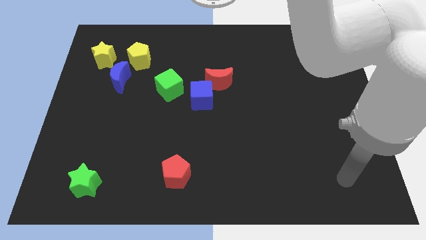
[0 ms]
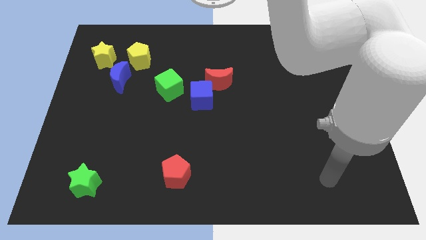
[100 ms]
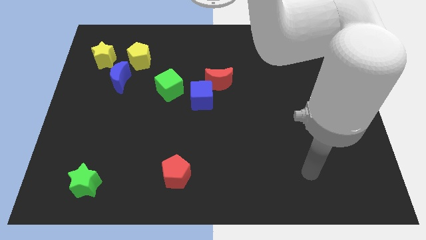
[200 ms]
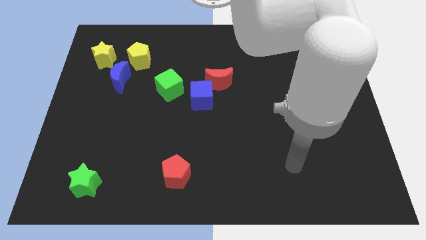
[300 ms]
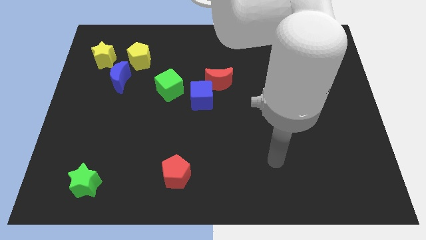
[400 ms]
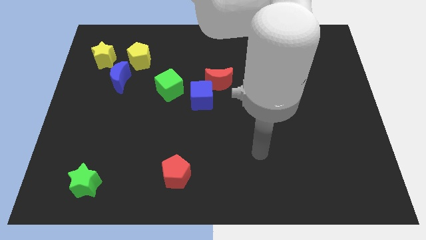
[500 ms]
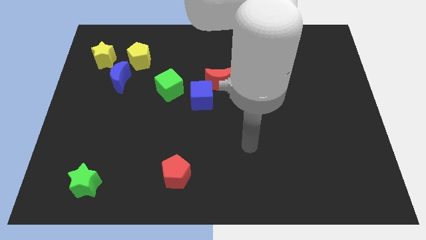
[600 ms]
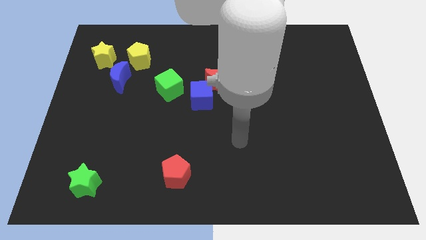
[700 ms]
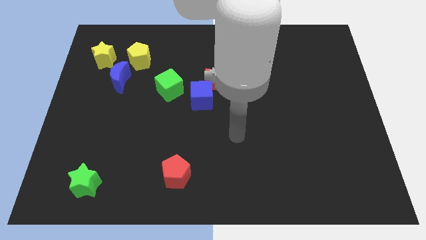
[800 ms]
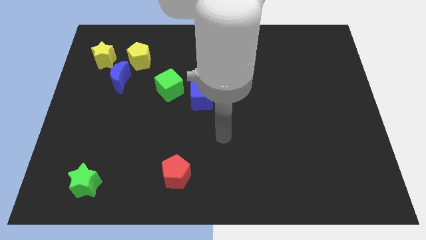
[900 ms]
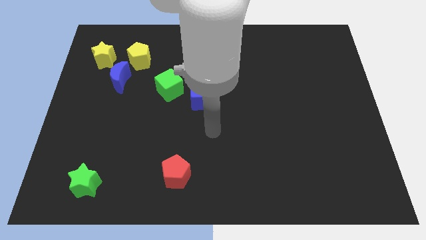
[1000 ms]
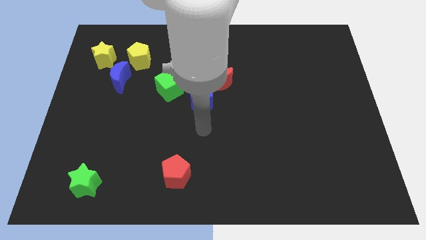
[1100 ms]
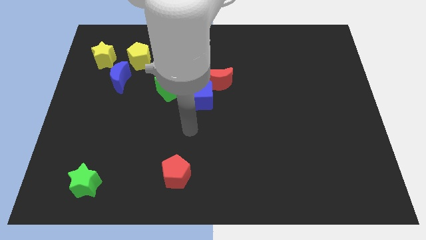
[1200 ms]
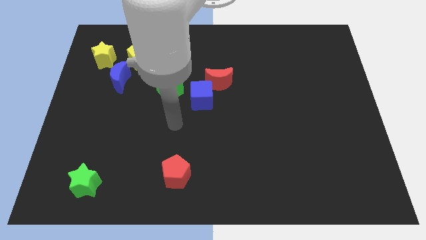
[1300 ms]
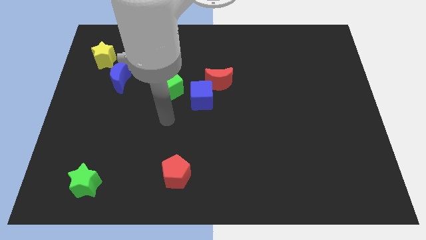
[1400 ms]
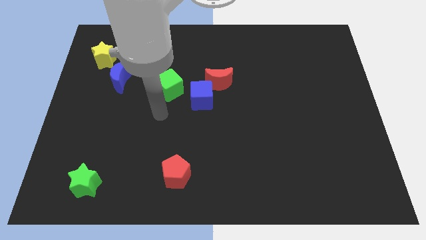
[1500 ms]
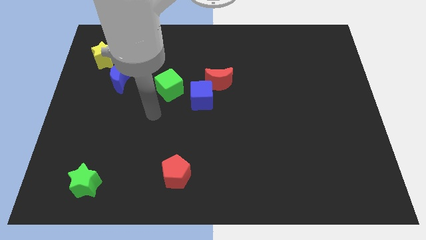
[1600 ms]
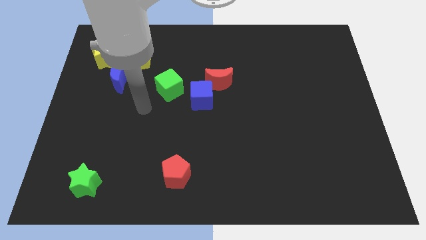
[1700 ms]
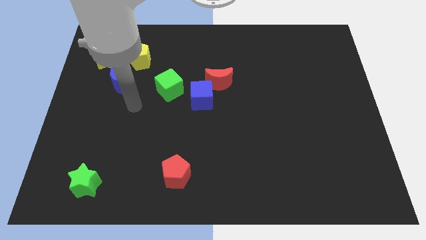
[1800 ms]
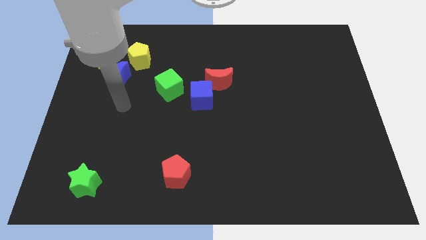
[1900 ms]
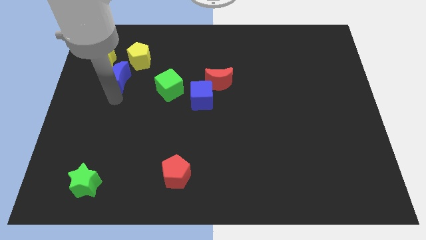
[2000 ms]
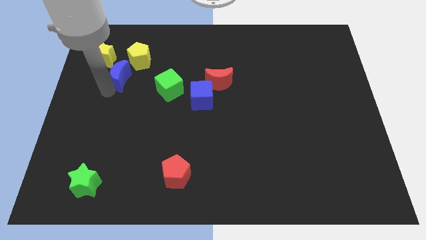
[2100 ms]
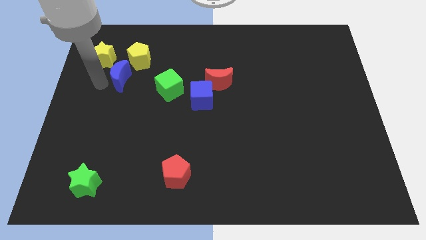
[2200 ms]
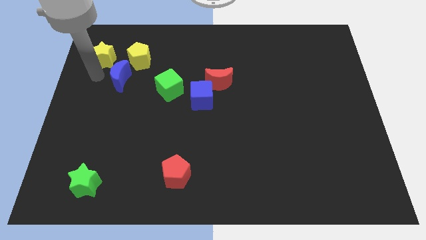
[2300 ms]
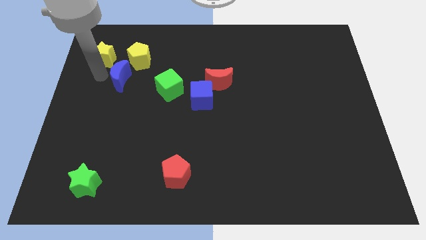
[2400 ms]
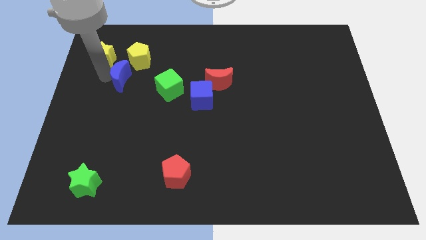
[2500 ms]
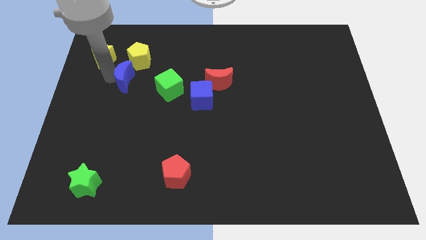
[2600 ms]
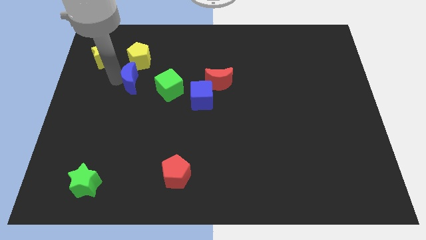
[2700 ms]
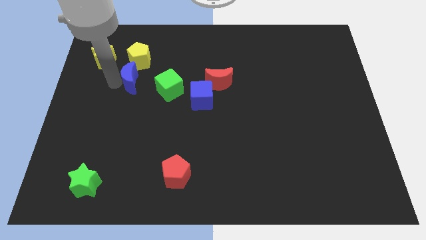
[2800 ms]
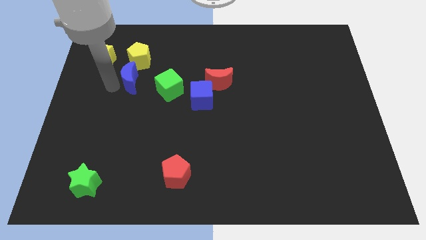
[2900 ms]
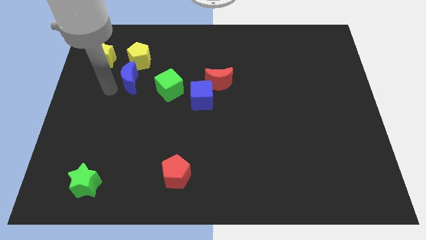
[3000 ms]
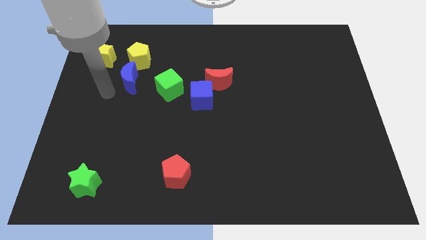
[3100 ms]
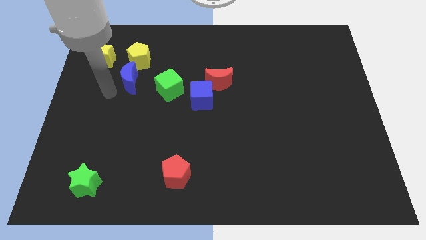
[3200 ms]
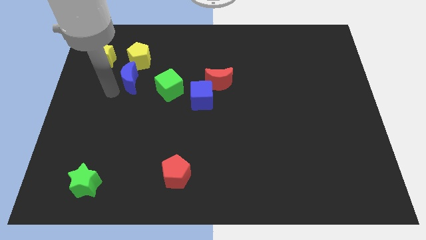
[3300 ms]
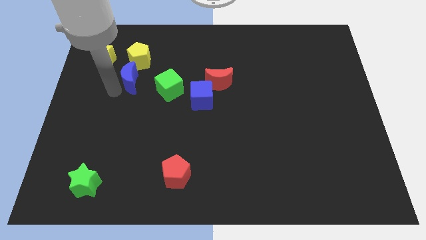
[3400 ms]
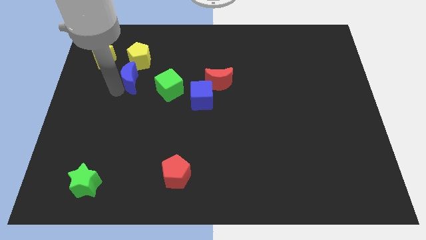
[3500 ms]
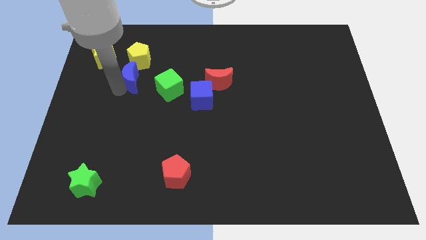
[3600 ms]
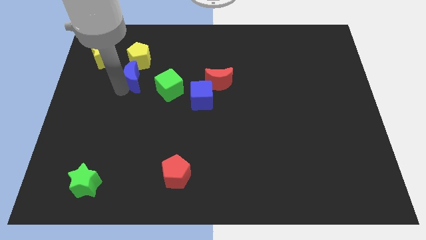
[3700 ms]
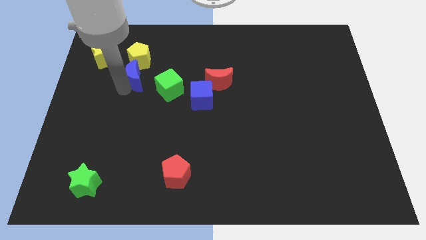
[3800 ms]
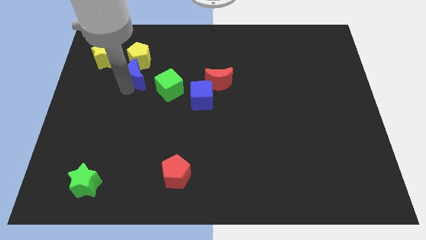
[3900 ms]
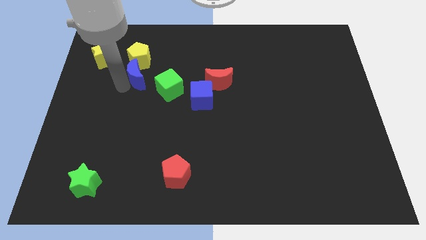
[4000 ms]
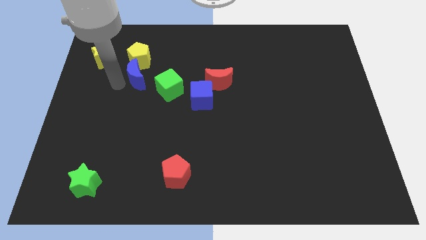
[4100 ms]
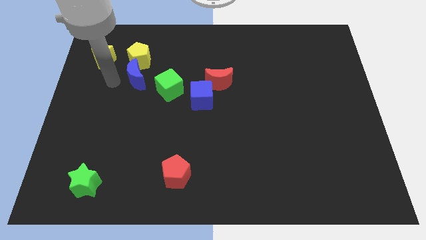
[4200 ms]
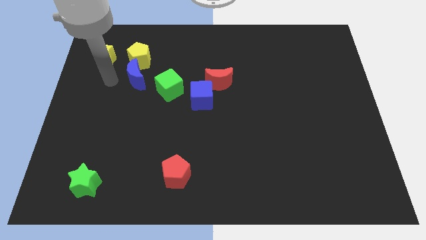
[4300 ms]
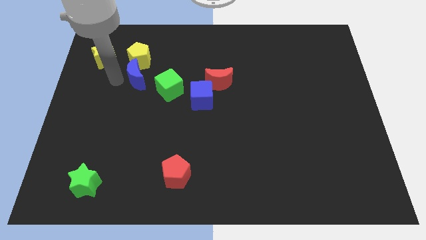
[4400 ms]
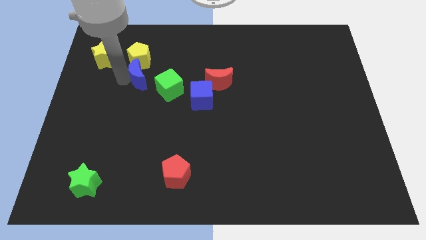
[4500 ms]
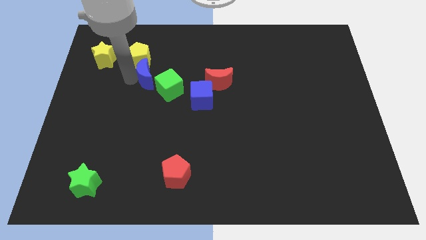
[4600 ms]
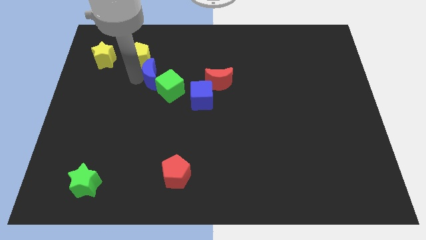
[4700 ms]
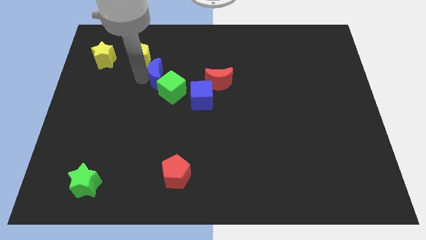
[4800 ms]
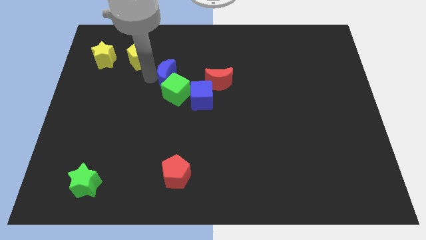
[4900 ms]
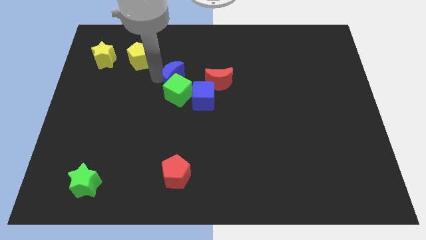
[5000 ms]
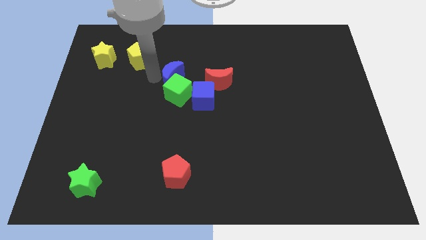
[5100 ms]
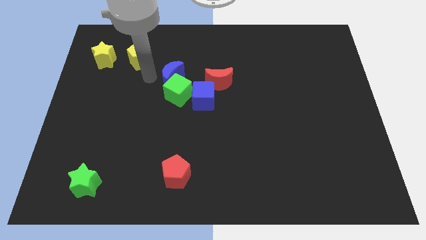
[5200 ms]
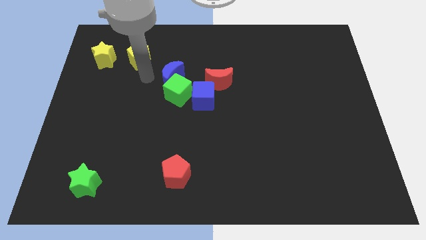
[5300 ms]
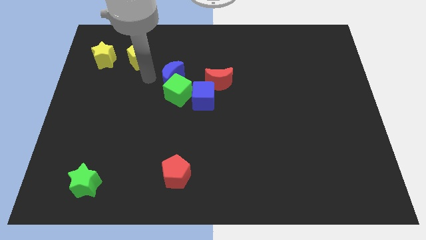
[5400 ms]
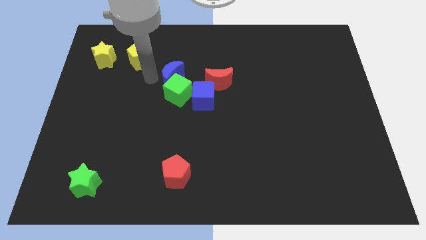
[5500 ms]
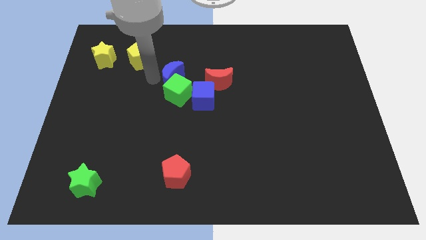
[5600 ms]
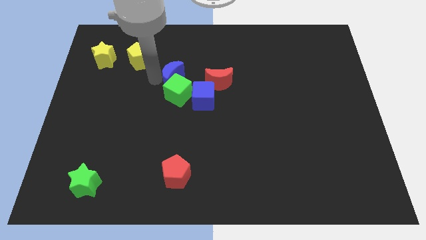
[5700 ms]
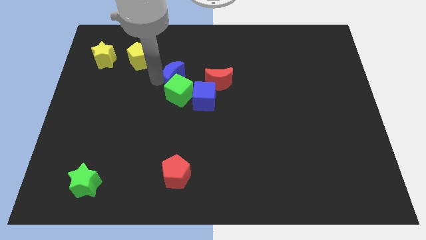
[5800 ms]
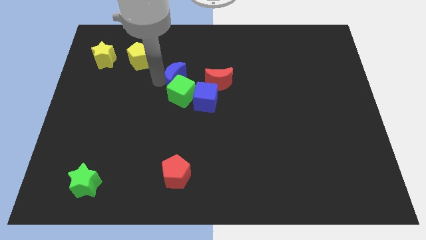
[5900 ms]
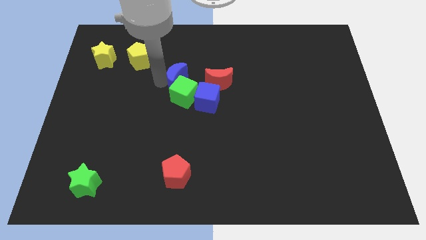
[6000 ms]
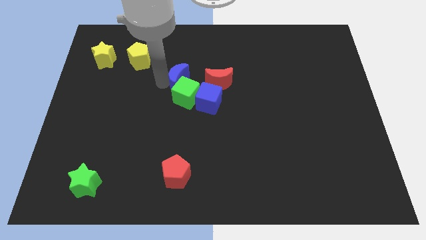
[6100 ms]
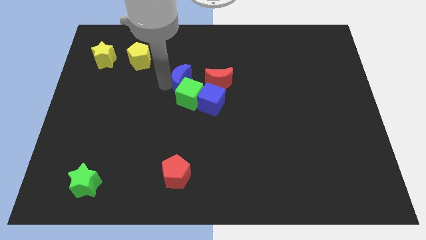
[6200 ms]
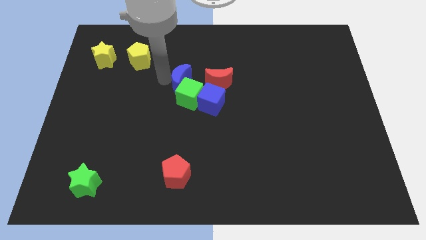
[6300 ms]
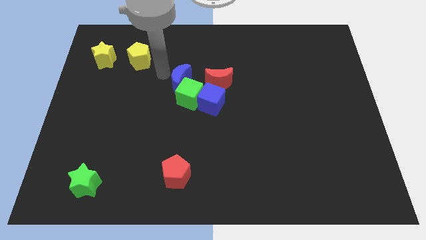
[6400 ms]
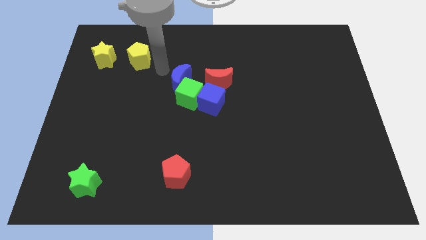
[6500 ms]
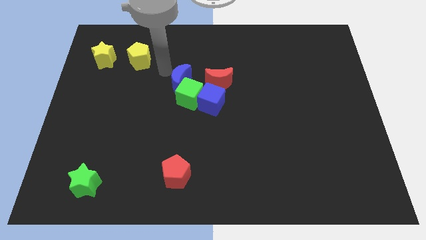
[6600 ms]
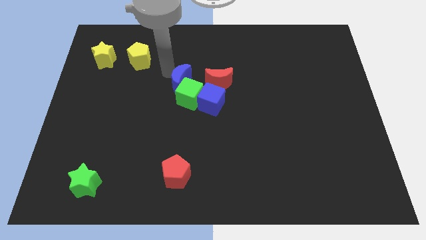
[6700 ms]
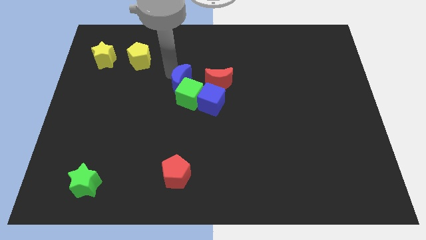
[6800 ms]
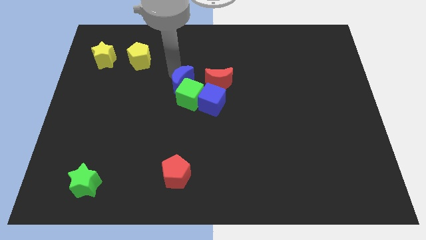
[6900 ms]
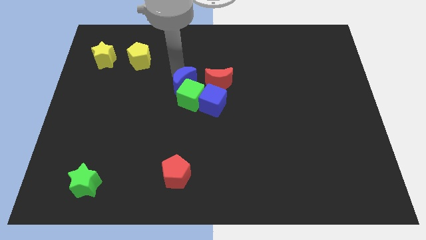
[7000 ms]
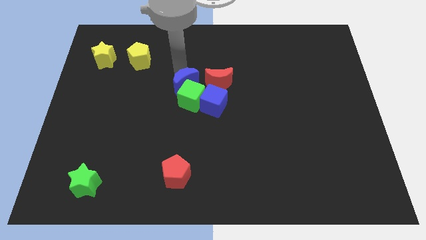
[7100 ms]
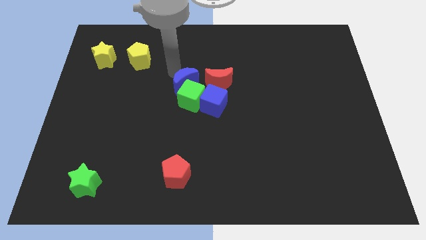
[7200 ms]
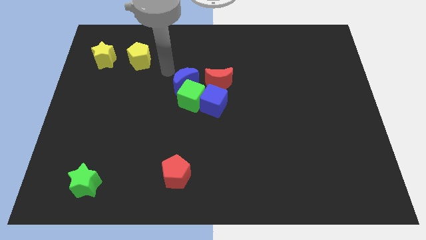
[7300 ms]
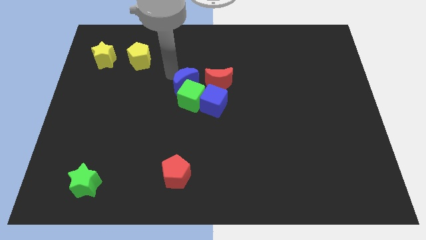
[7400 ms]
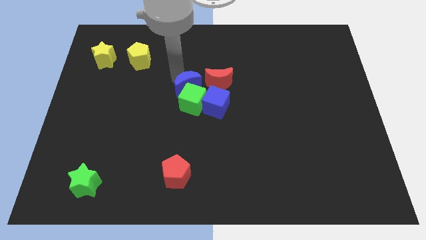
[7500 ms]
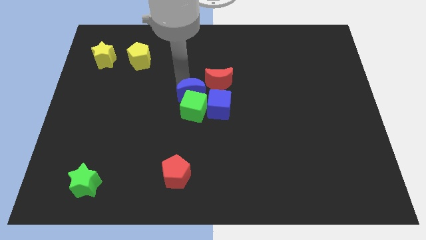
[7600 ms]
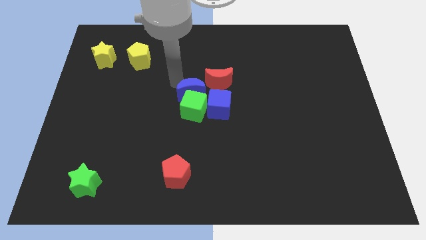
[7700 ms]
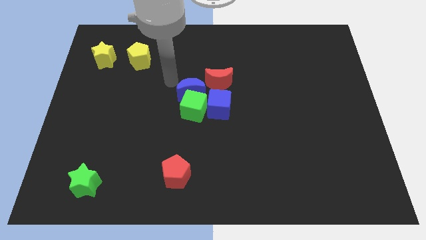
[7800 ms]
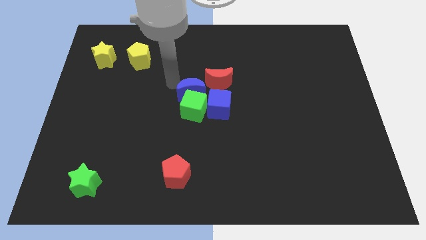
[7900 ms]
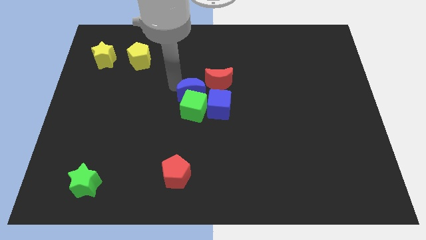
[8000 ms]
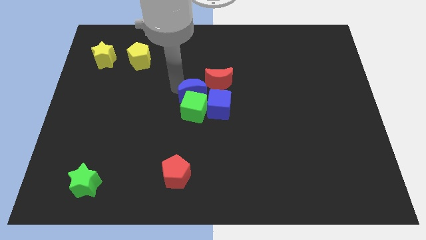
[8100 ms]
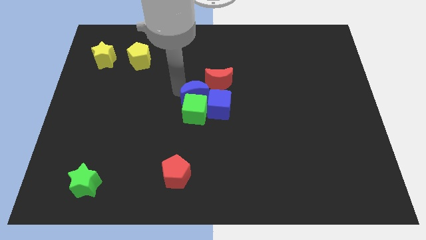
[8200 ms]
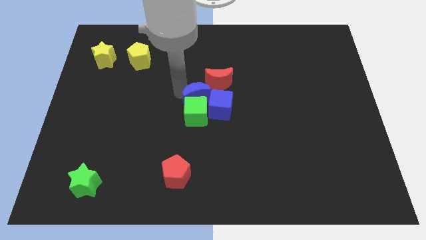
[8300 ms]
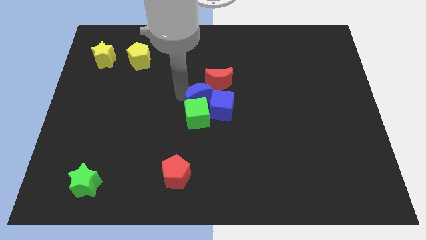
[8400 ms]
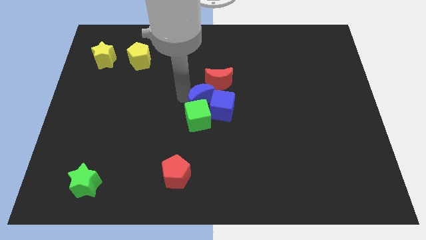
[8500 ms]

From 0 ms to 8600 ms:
move the blue moon close to the blue cube
